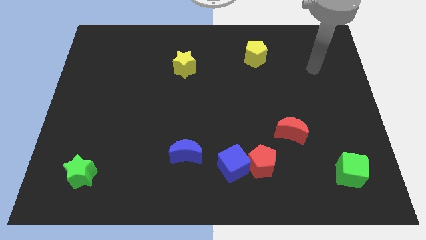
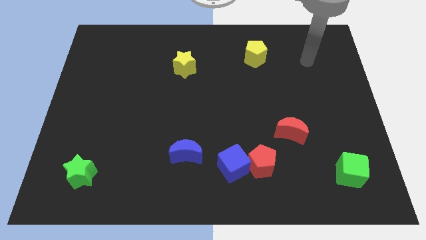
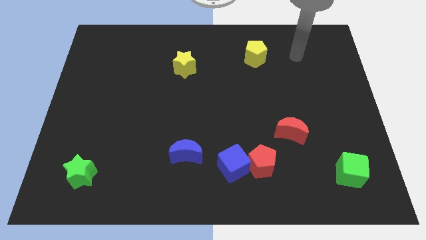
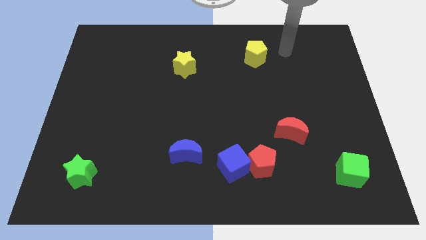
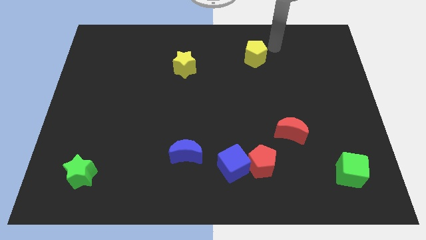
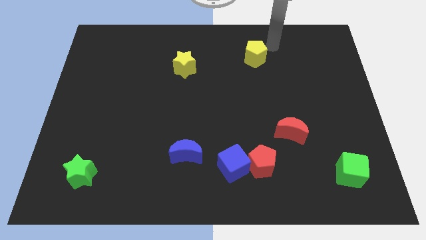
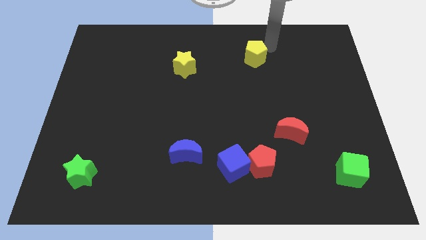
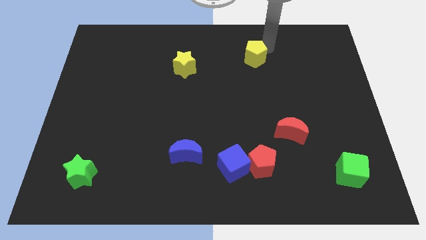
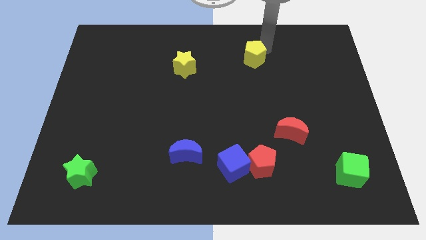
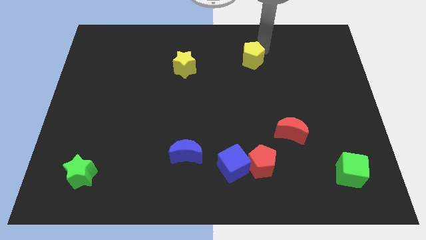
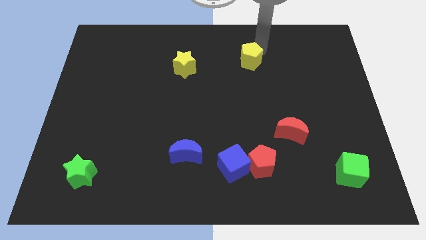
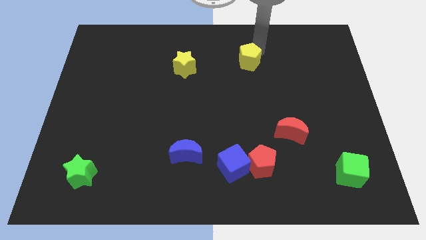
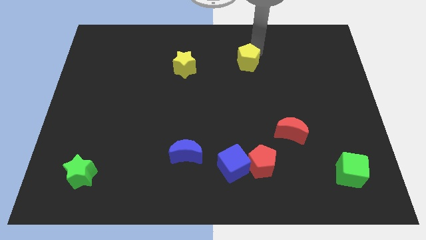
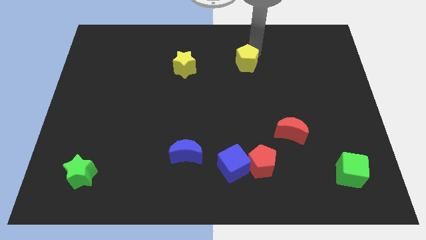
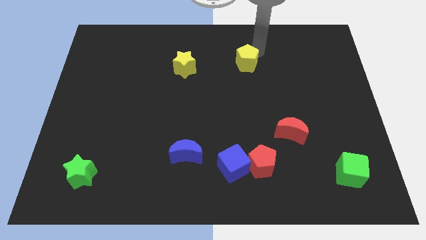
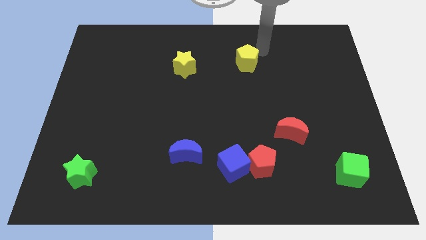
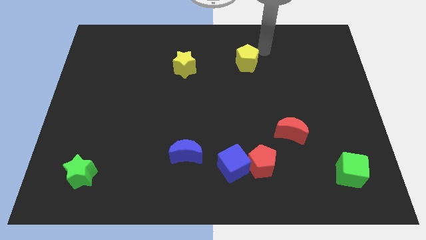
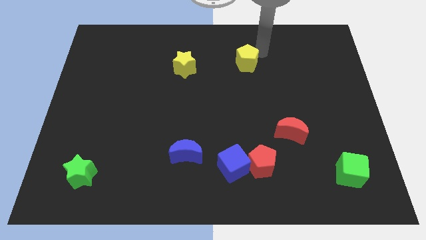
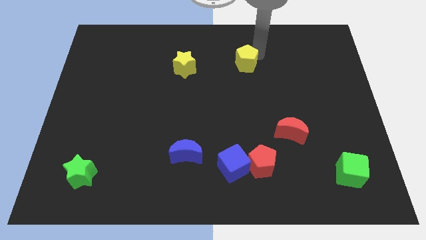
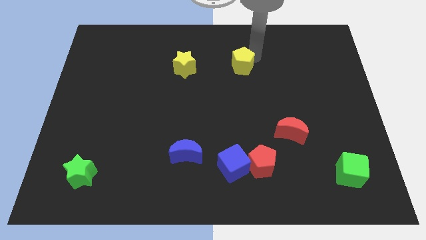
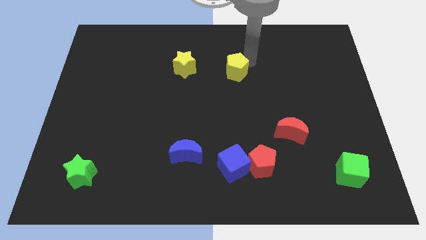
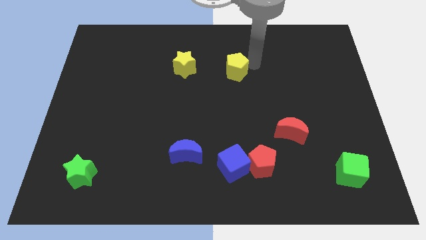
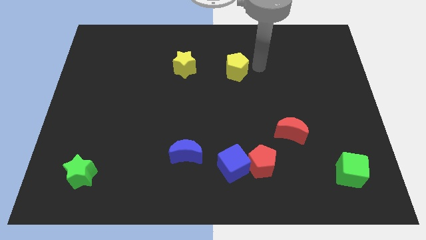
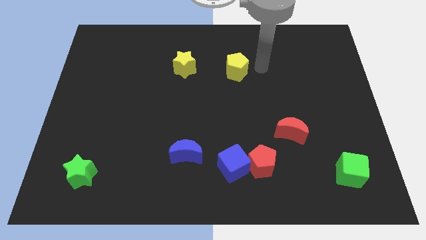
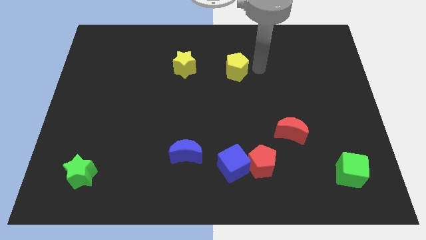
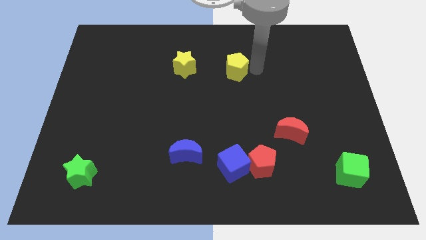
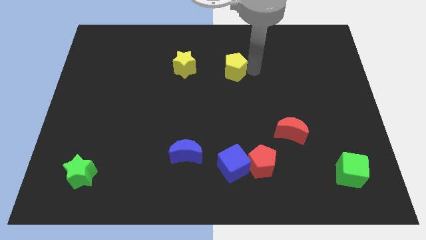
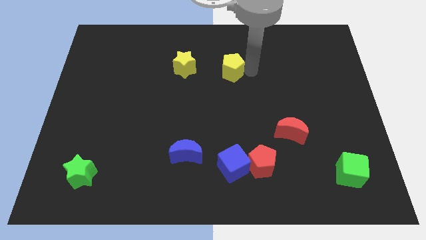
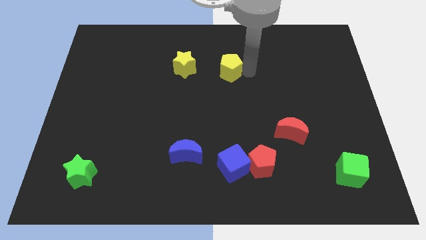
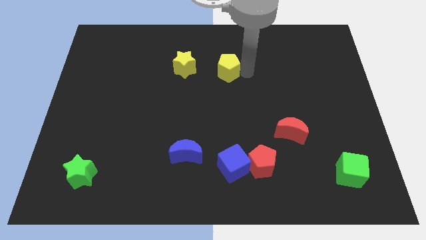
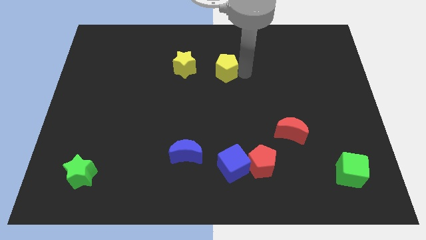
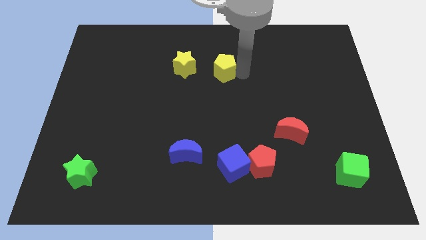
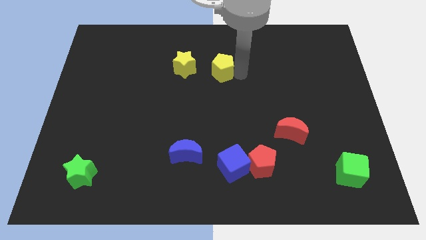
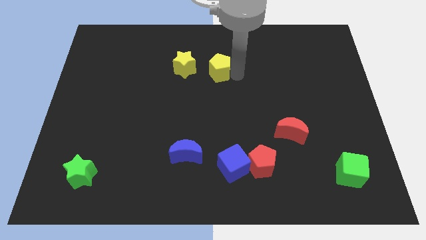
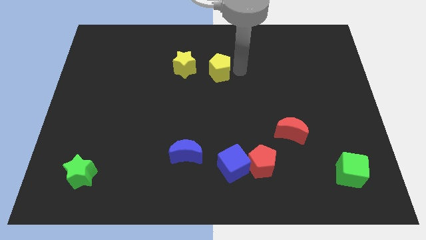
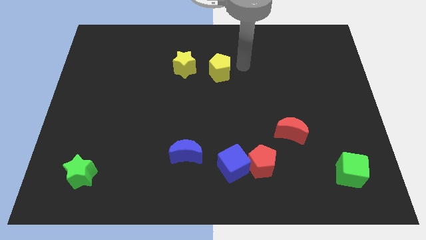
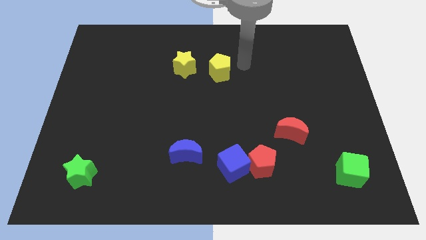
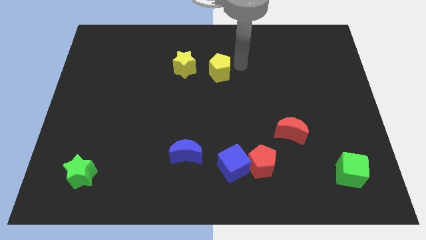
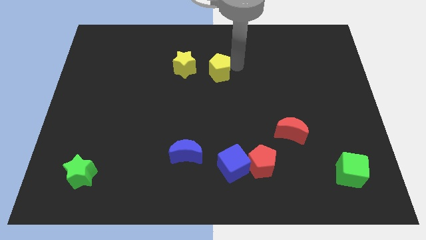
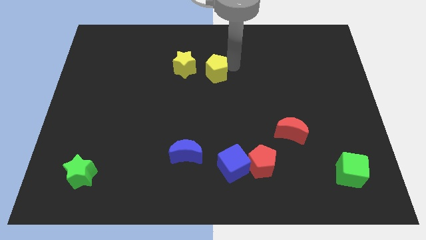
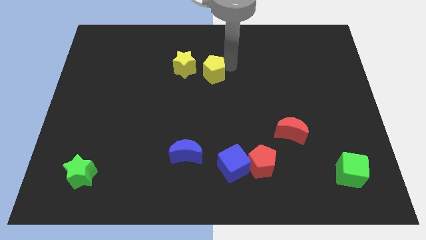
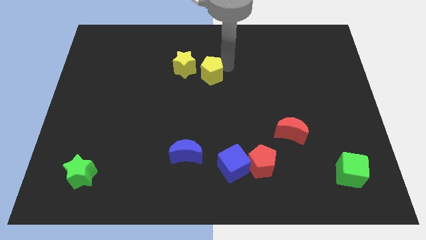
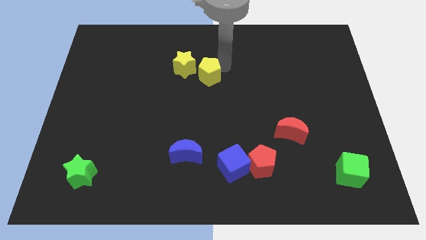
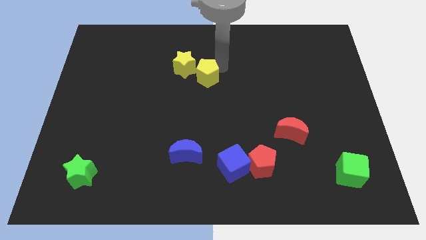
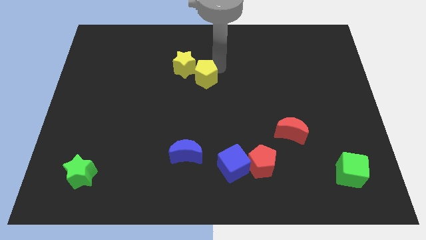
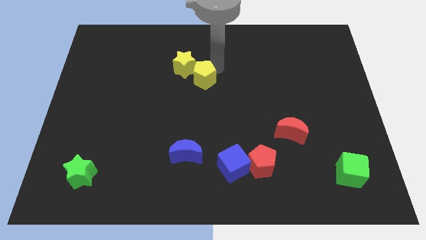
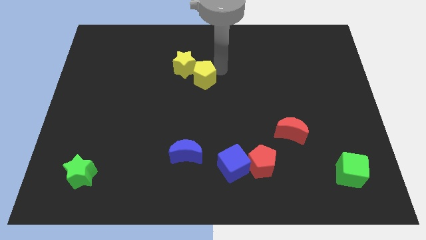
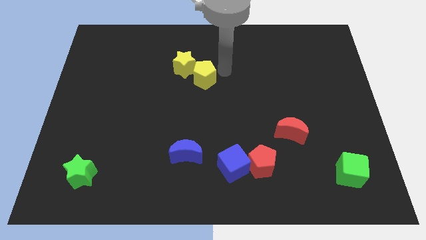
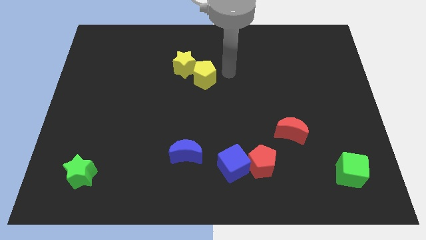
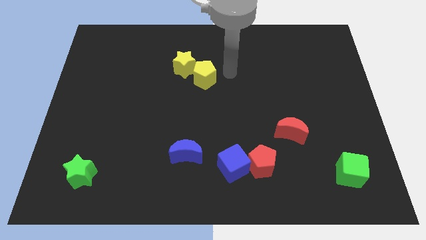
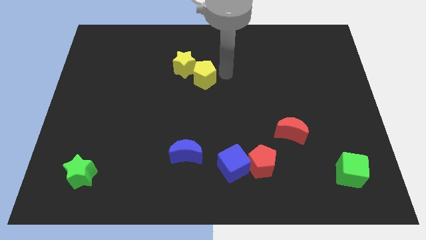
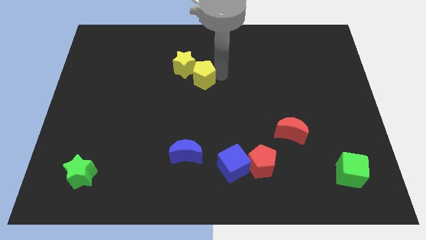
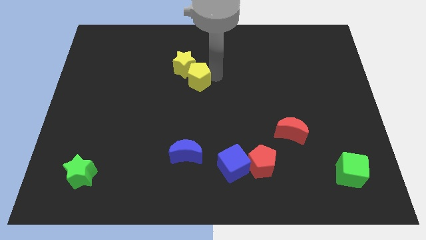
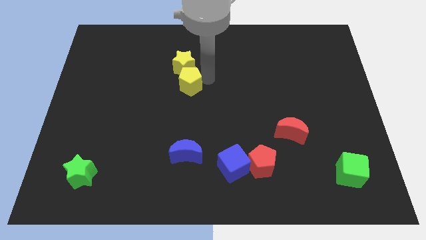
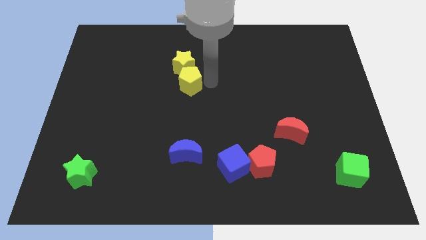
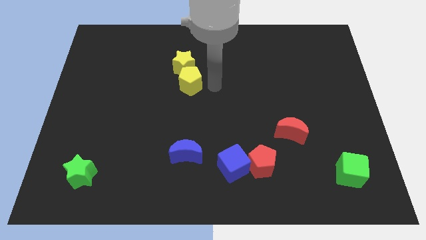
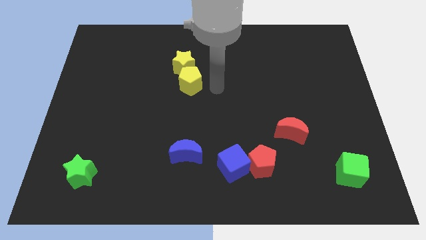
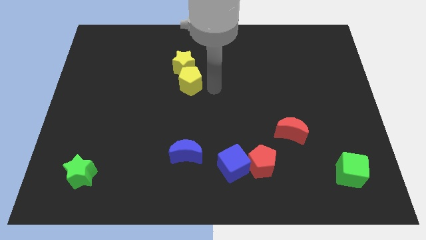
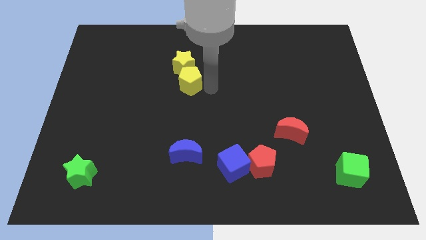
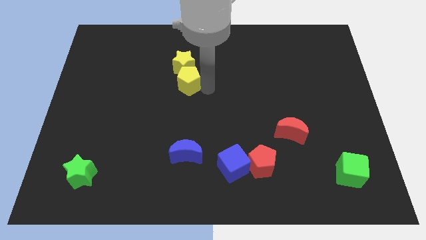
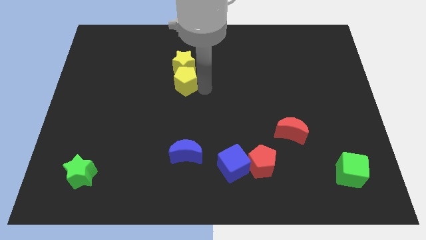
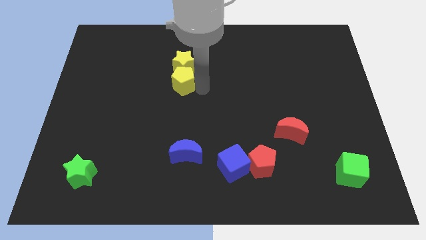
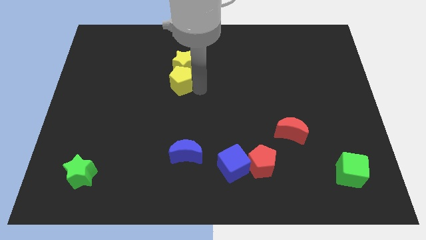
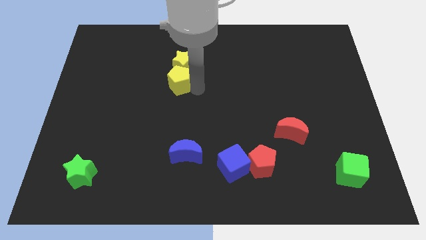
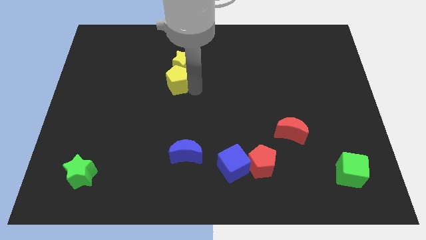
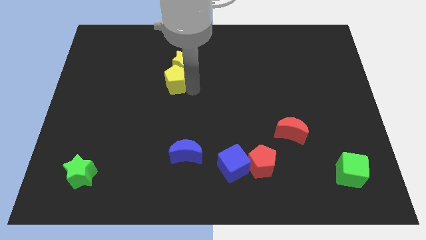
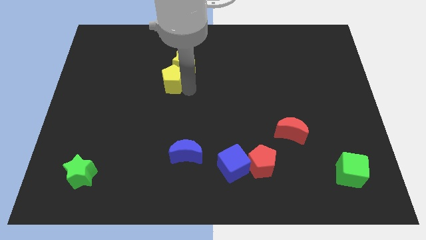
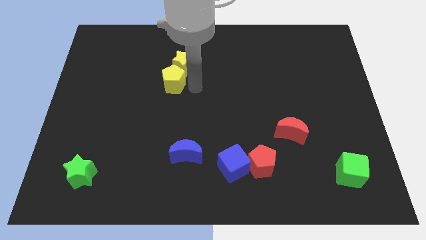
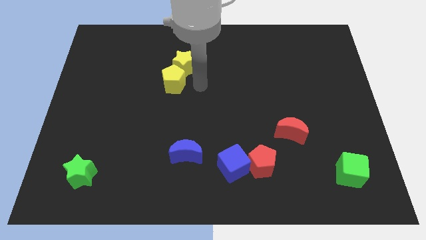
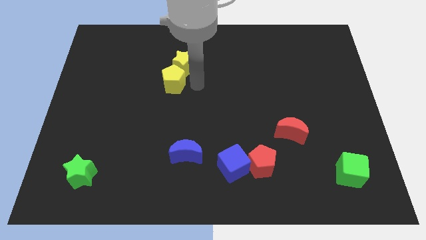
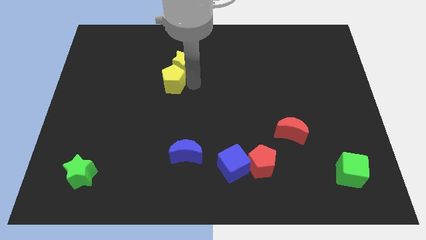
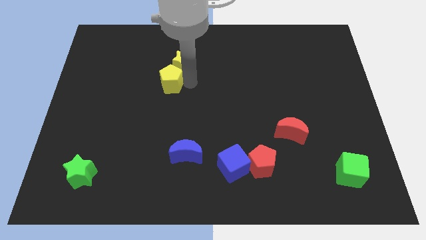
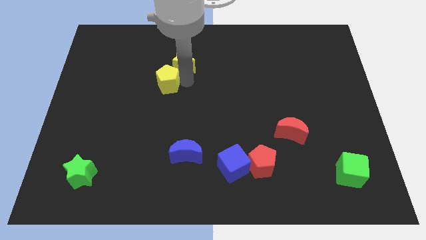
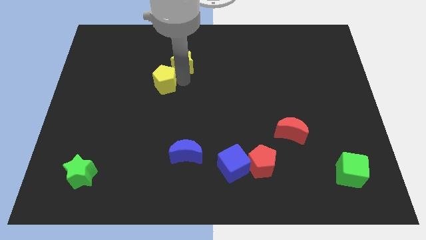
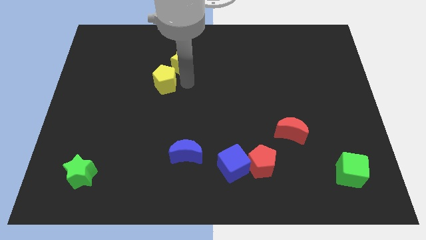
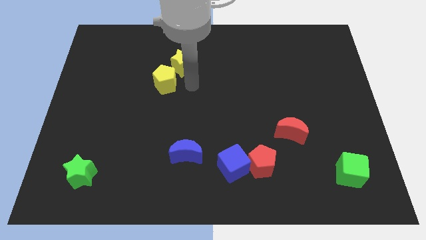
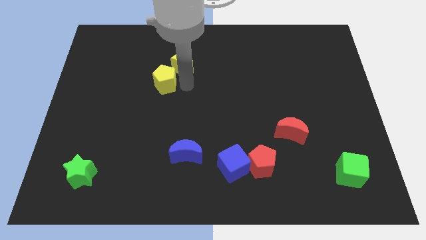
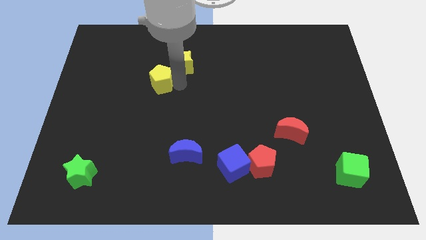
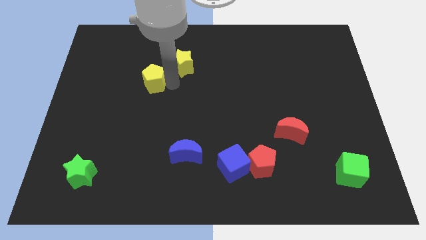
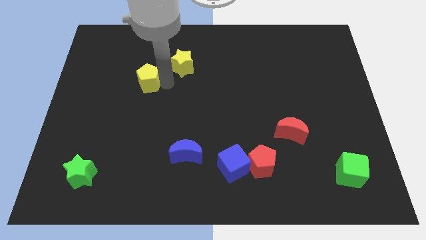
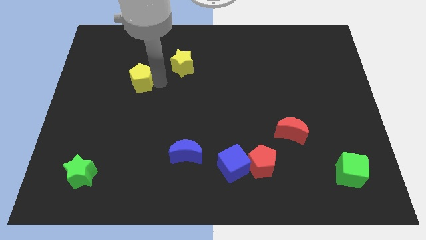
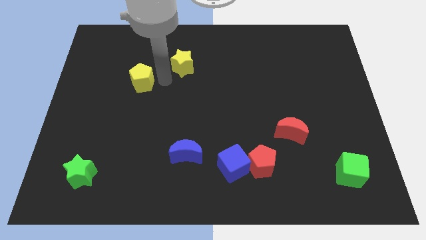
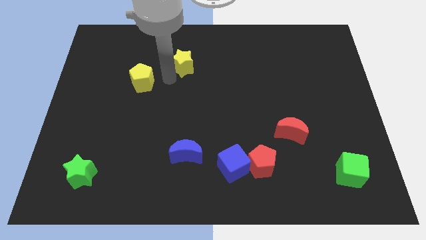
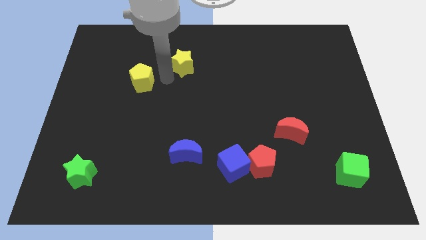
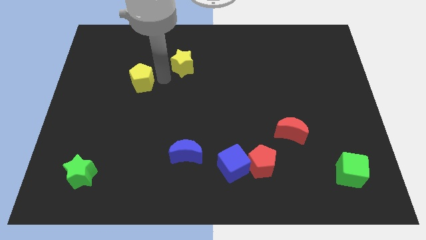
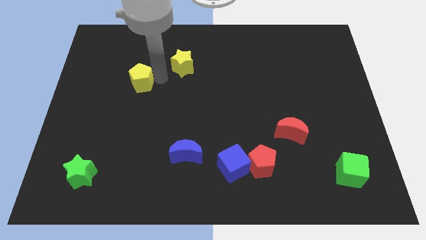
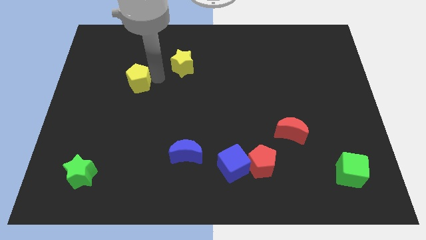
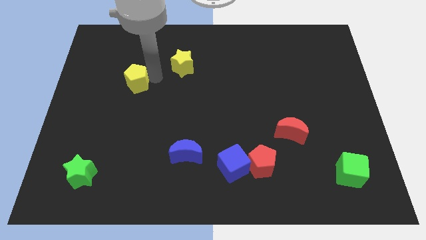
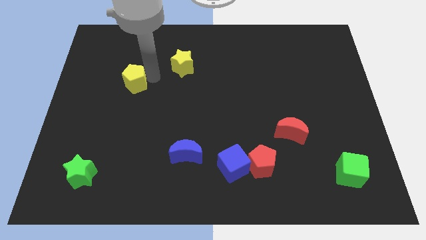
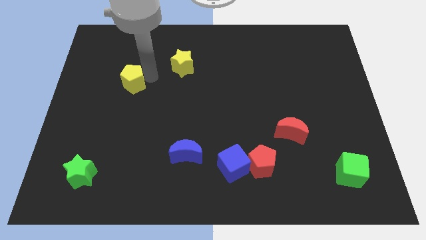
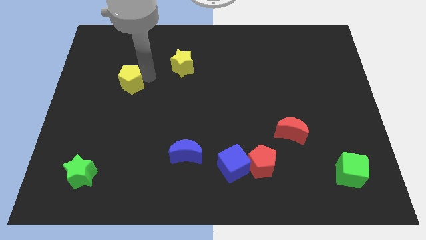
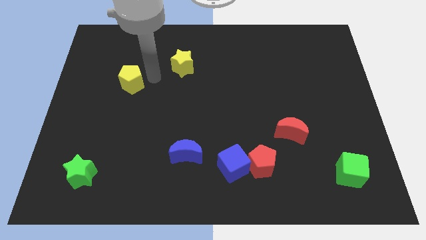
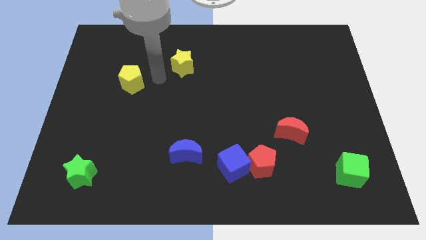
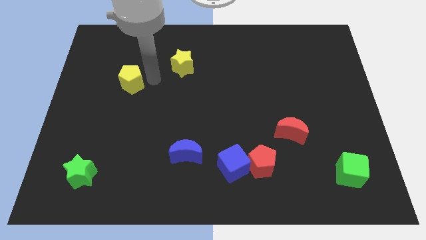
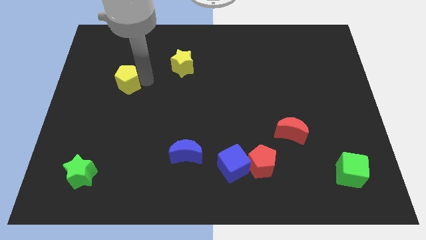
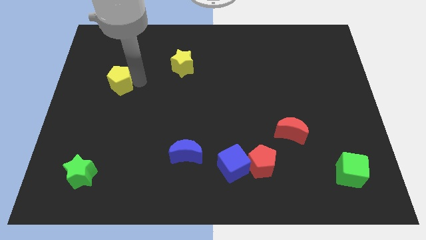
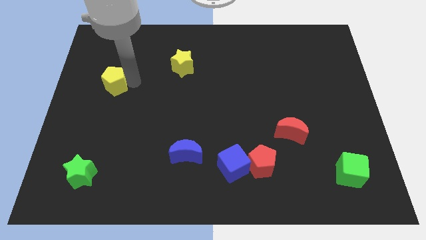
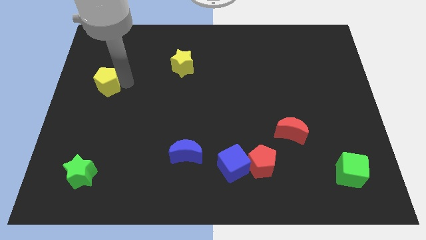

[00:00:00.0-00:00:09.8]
push the yellow pentagon to the center left
